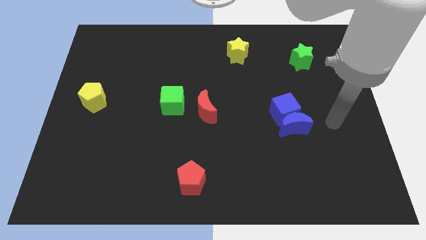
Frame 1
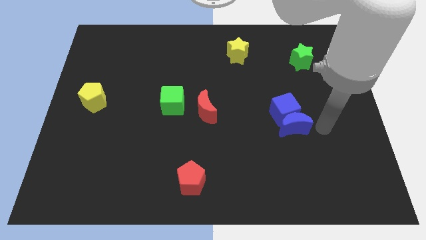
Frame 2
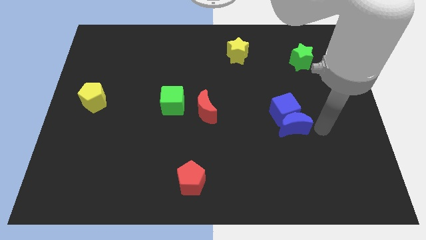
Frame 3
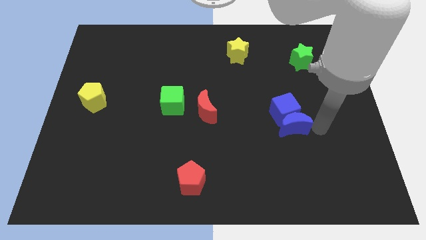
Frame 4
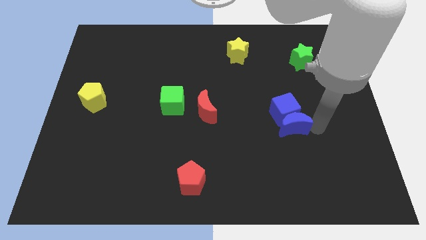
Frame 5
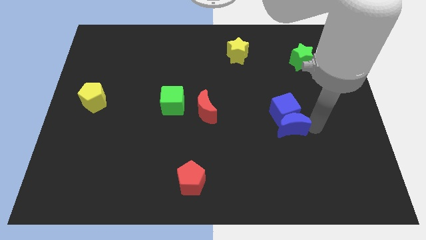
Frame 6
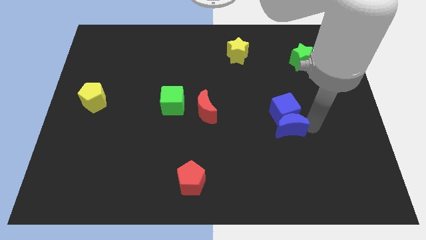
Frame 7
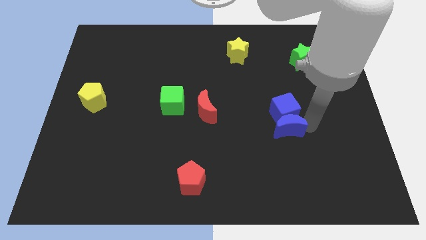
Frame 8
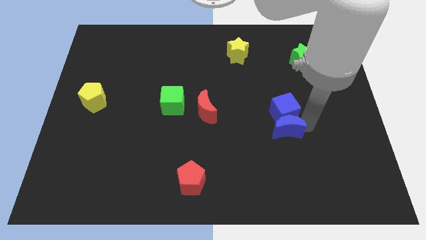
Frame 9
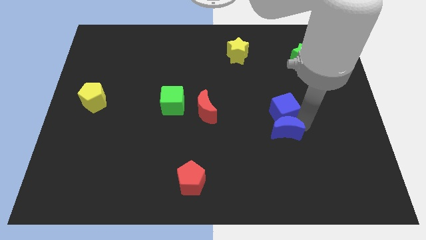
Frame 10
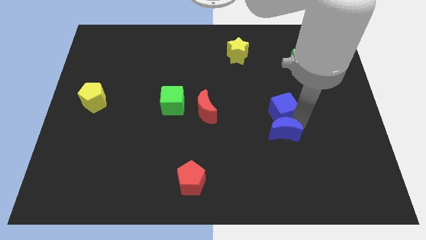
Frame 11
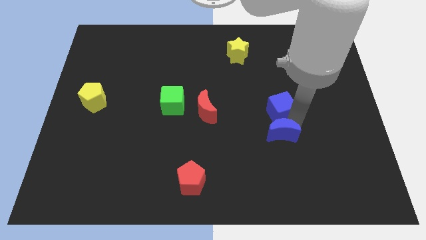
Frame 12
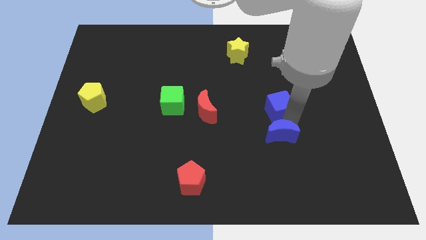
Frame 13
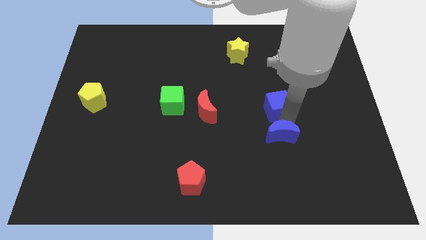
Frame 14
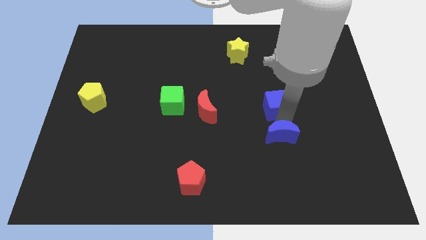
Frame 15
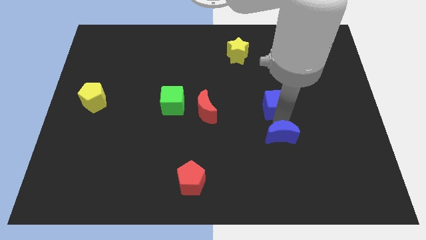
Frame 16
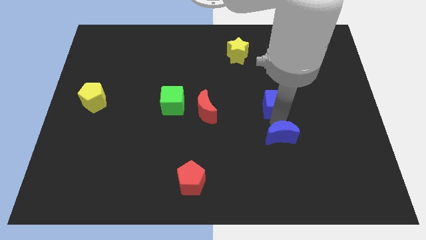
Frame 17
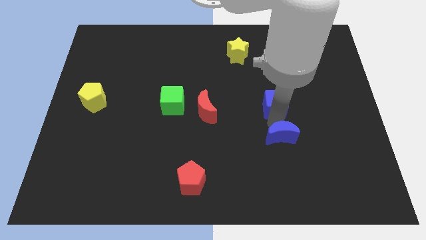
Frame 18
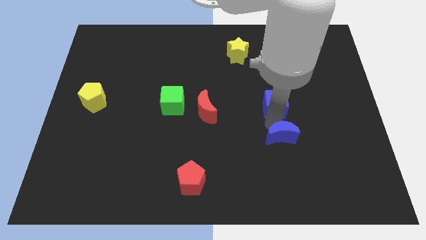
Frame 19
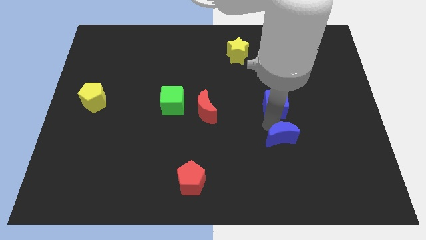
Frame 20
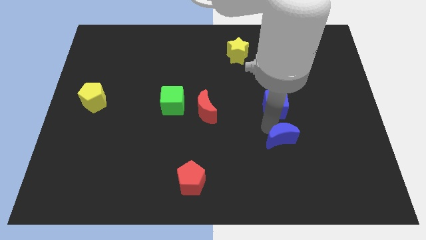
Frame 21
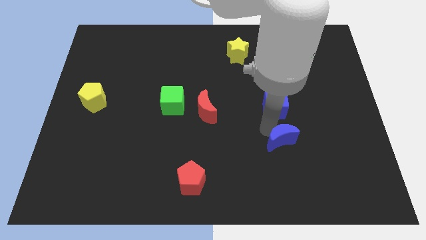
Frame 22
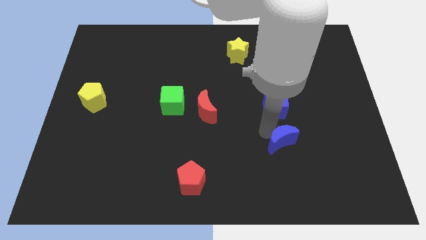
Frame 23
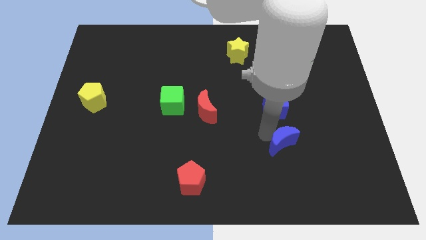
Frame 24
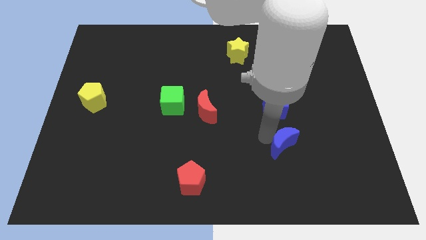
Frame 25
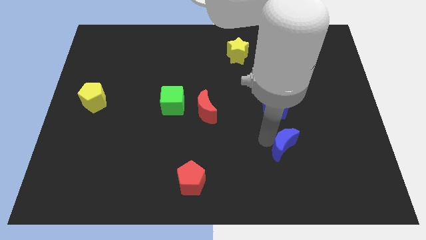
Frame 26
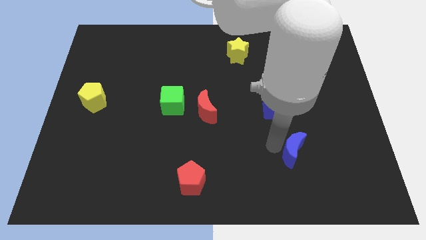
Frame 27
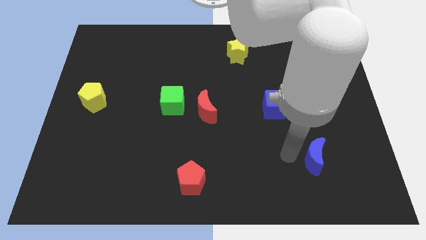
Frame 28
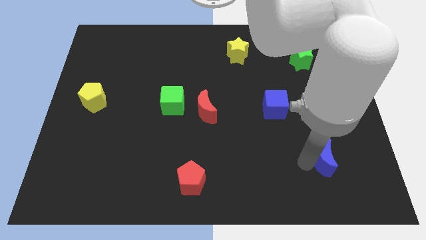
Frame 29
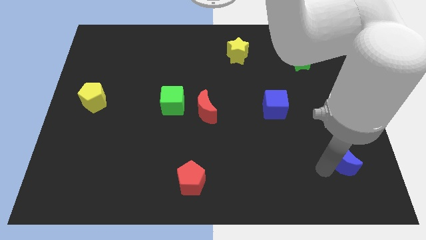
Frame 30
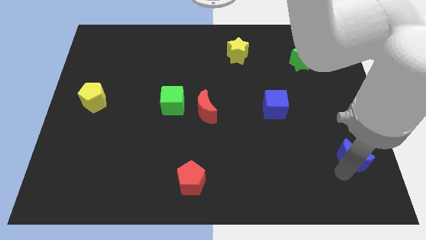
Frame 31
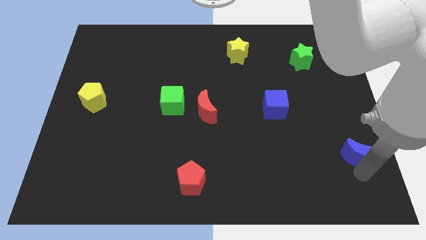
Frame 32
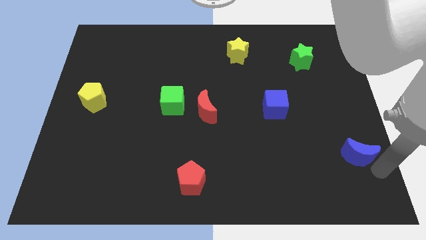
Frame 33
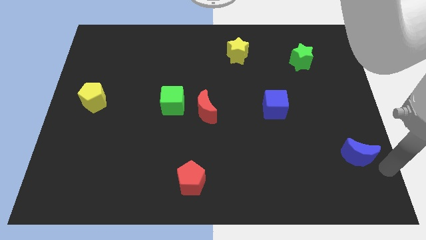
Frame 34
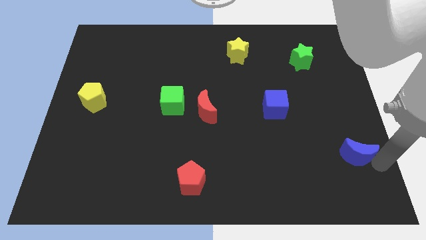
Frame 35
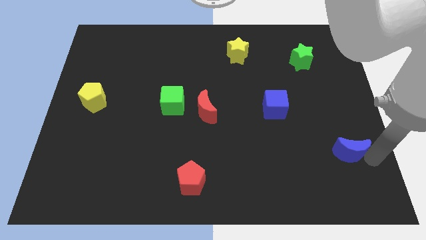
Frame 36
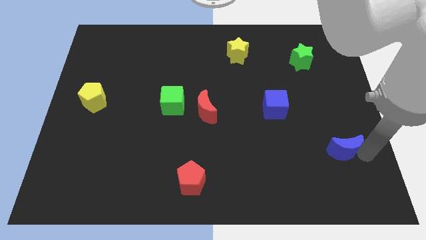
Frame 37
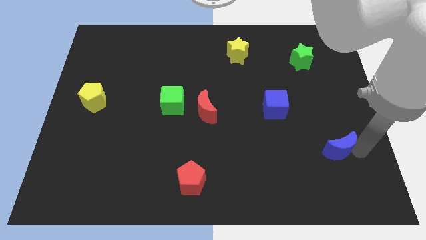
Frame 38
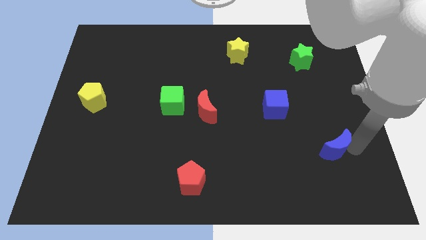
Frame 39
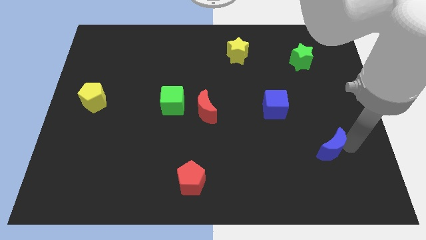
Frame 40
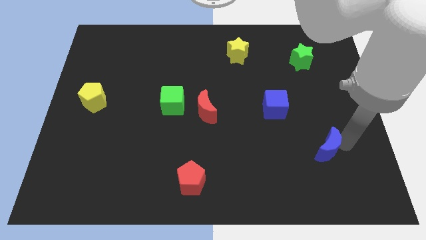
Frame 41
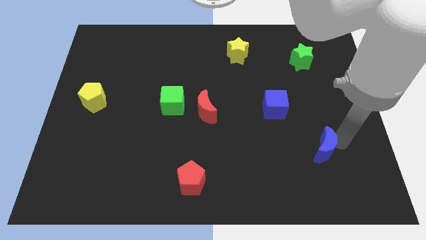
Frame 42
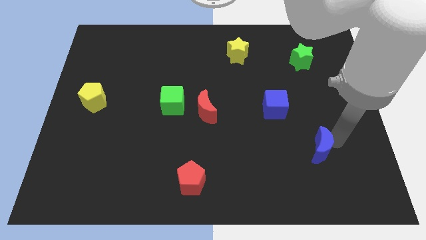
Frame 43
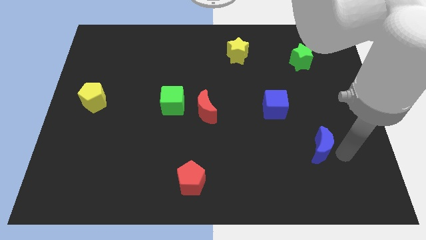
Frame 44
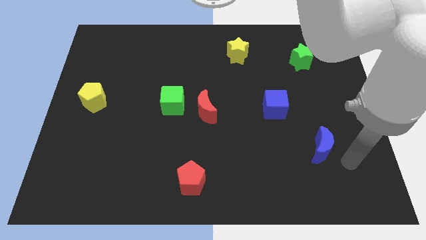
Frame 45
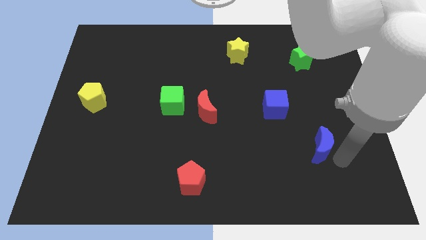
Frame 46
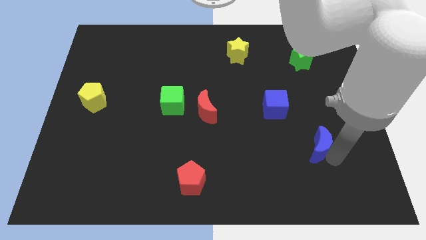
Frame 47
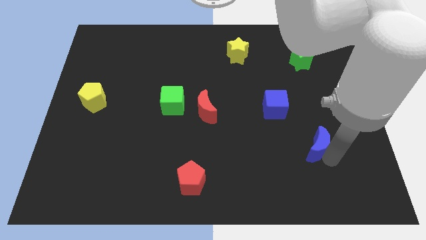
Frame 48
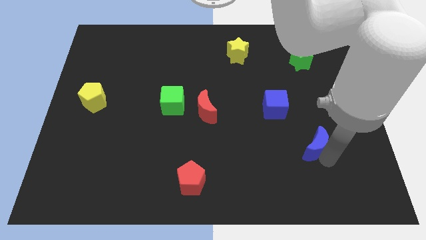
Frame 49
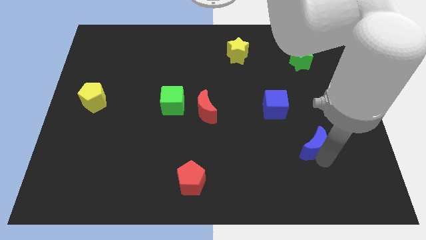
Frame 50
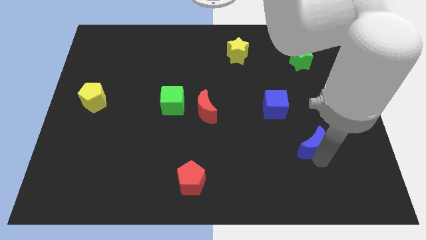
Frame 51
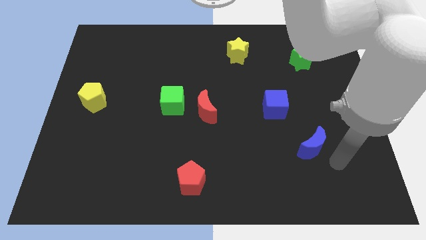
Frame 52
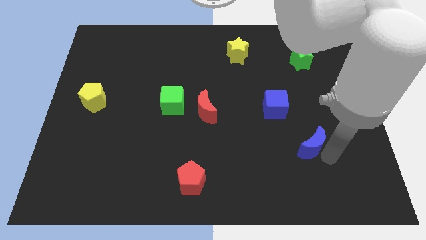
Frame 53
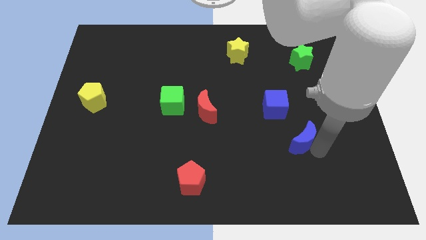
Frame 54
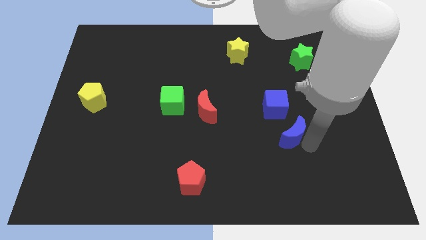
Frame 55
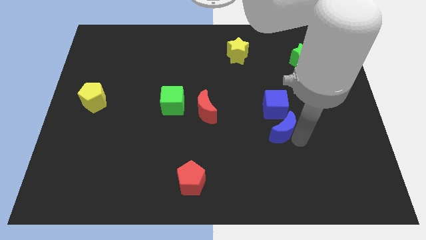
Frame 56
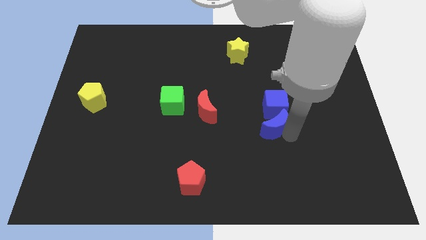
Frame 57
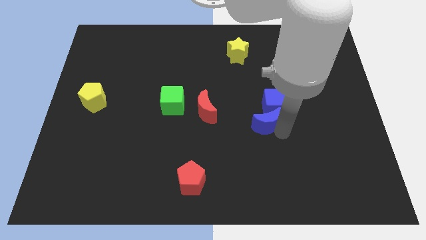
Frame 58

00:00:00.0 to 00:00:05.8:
slide the blue moon right of the red moon

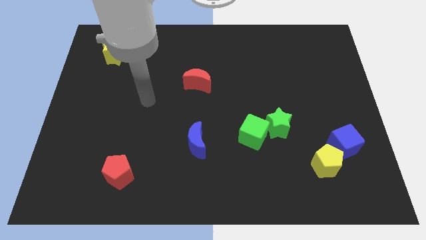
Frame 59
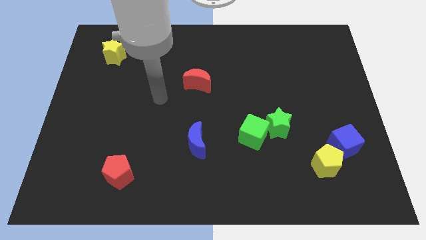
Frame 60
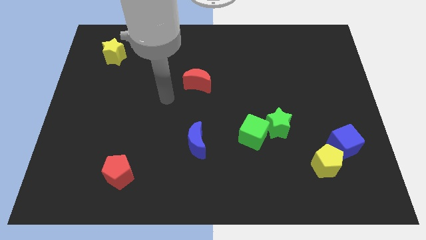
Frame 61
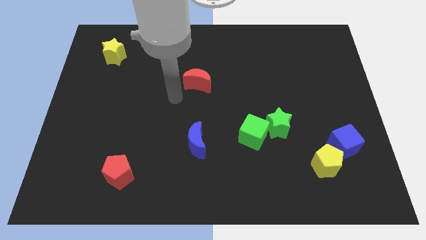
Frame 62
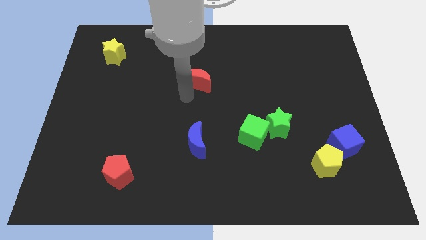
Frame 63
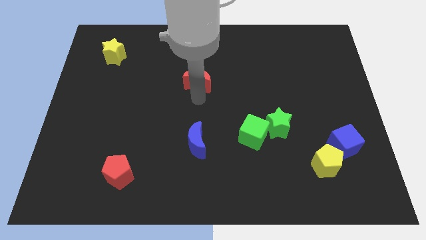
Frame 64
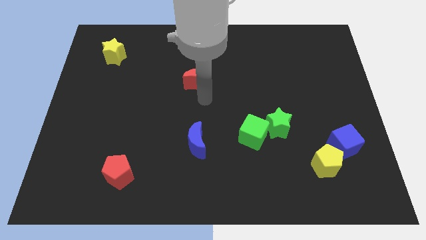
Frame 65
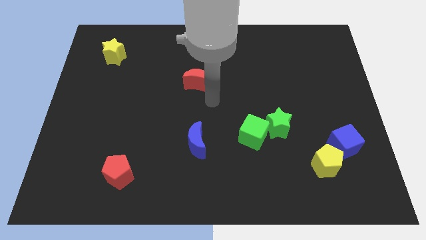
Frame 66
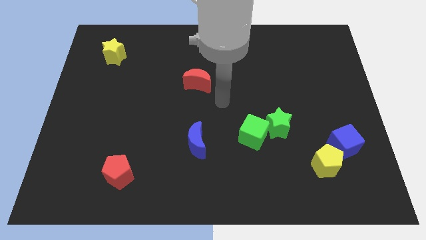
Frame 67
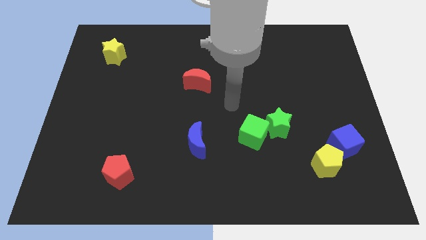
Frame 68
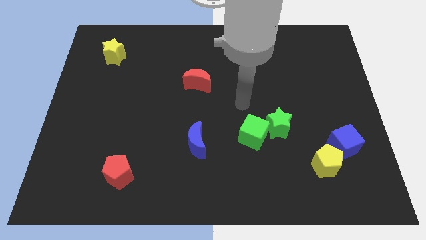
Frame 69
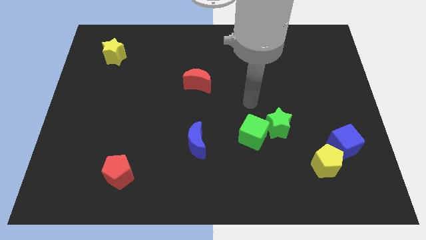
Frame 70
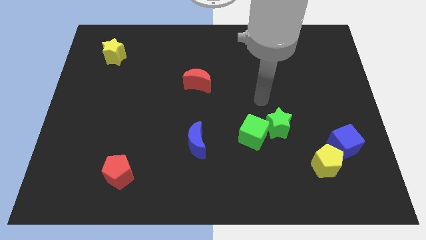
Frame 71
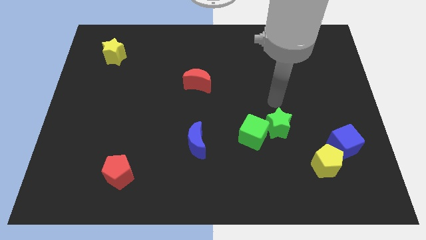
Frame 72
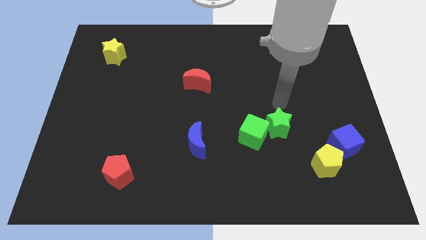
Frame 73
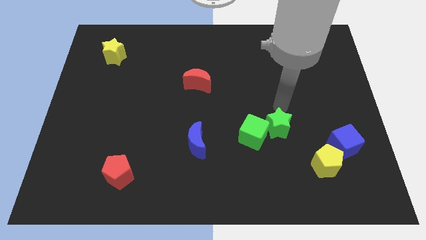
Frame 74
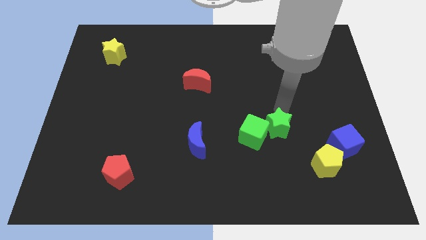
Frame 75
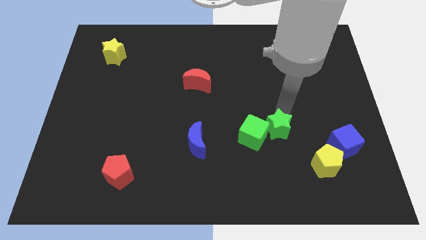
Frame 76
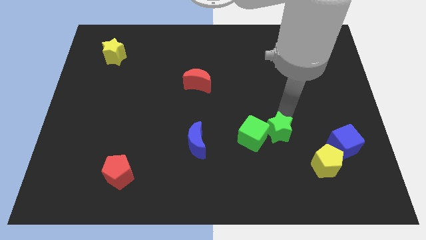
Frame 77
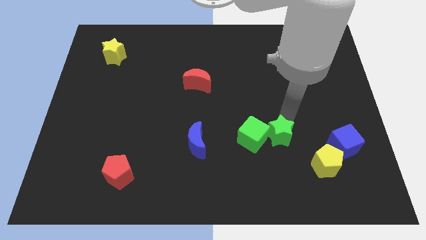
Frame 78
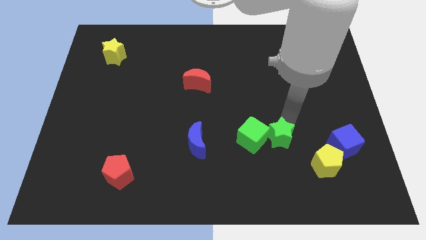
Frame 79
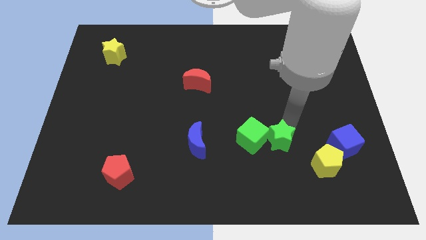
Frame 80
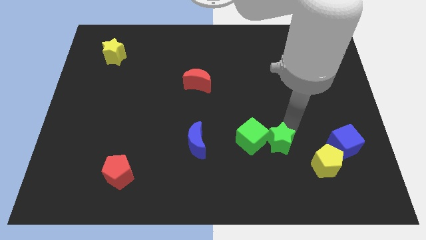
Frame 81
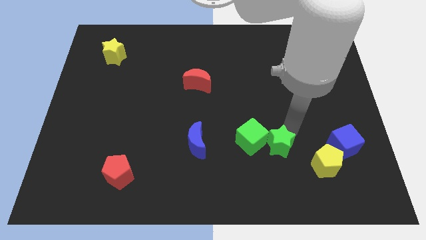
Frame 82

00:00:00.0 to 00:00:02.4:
slide the green star just left of the yellow pentagon
